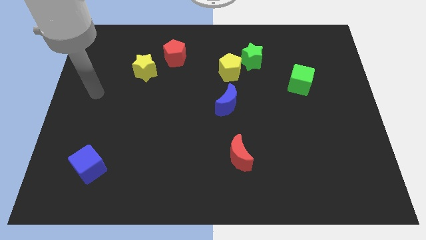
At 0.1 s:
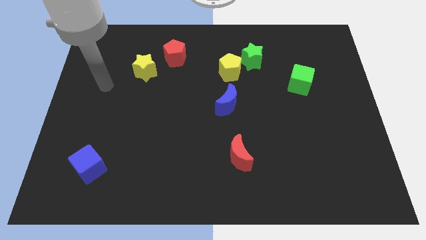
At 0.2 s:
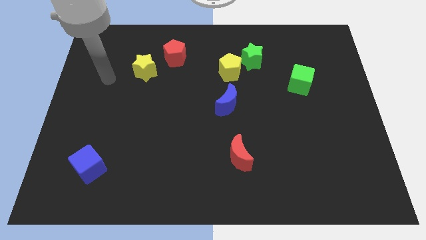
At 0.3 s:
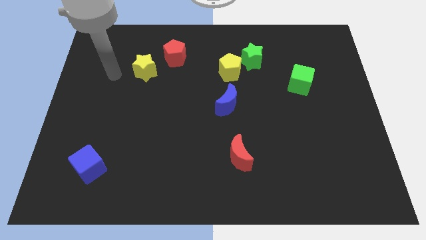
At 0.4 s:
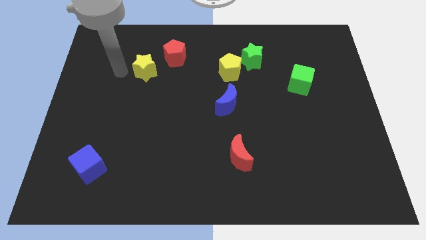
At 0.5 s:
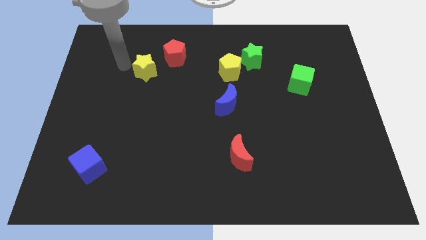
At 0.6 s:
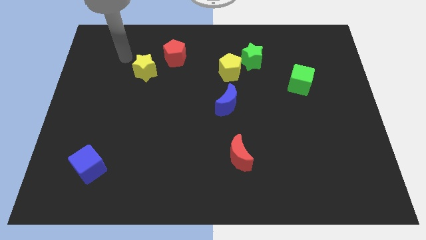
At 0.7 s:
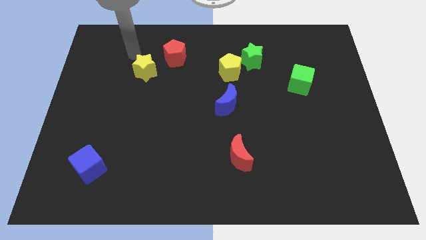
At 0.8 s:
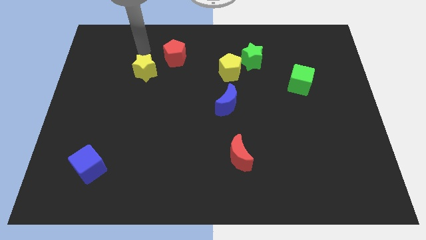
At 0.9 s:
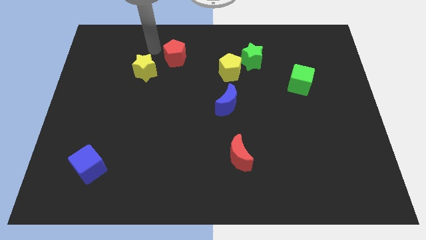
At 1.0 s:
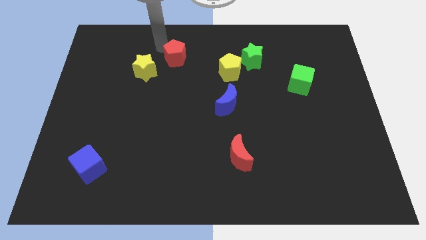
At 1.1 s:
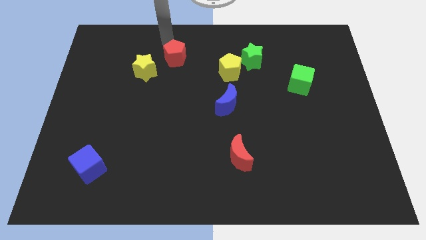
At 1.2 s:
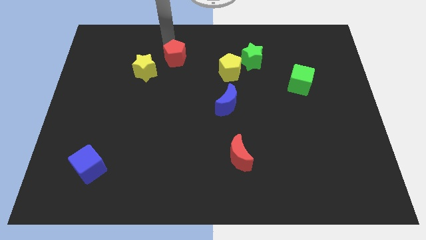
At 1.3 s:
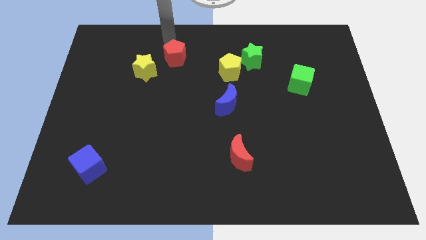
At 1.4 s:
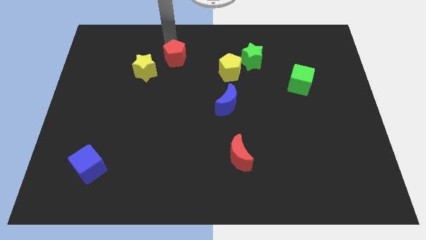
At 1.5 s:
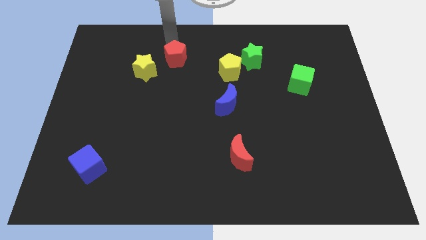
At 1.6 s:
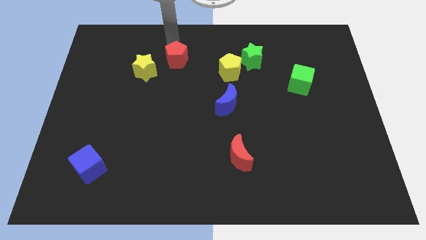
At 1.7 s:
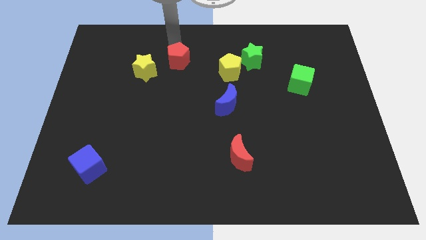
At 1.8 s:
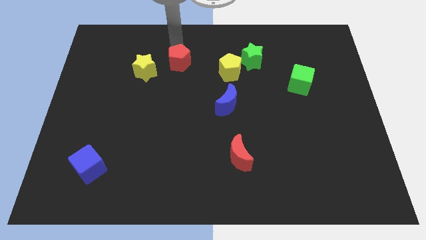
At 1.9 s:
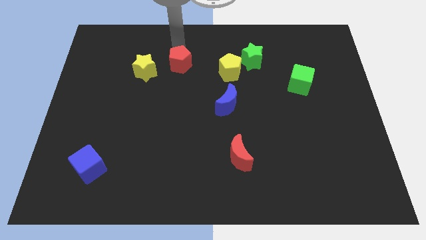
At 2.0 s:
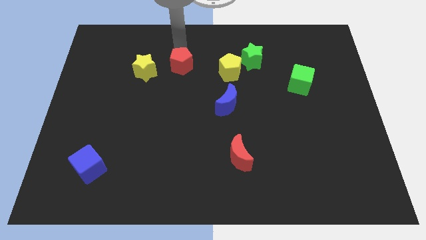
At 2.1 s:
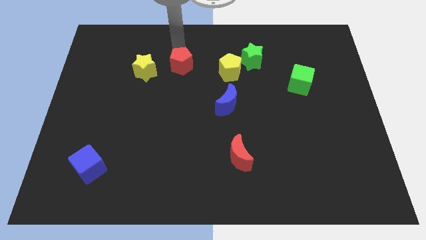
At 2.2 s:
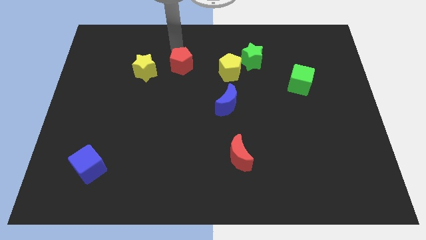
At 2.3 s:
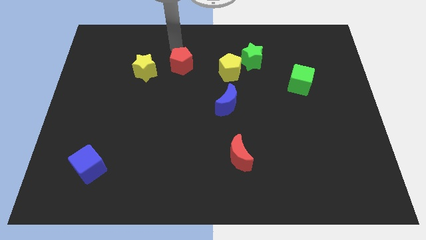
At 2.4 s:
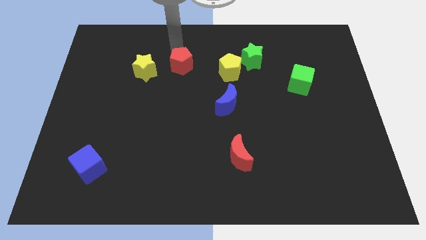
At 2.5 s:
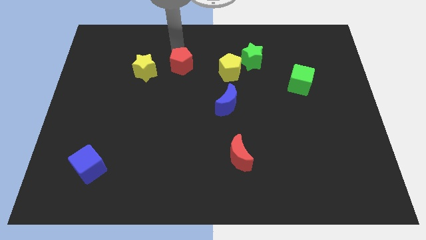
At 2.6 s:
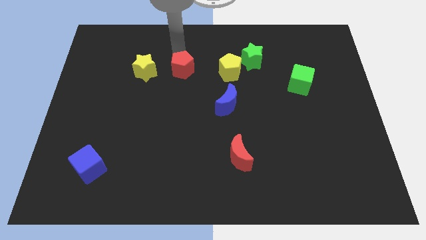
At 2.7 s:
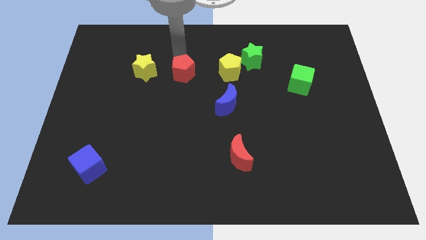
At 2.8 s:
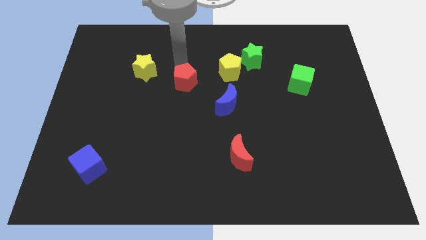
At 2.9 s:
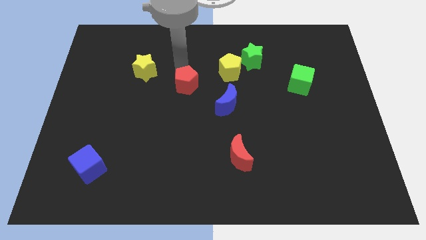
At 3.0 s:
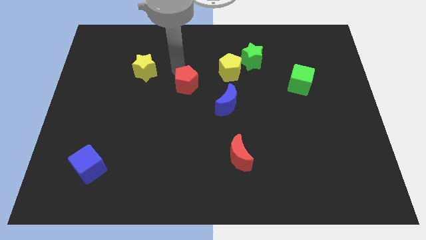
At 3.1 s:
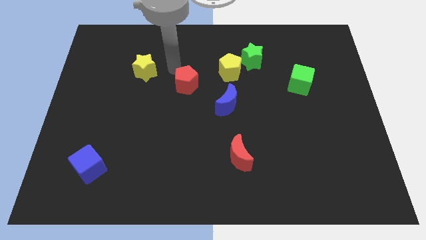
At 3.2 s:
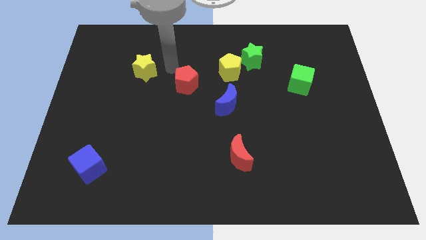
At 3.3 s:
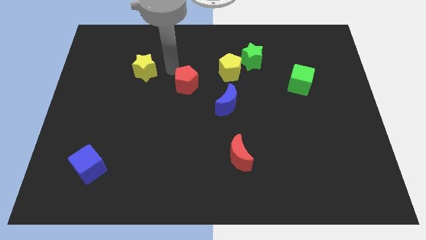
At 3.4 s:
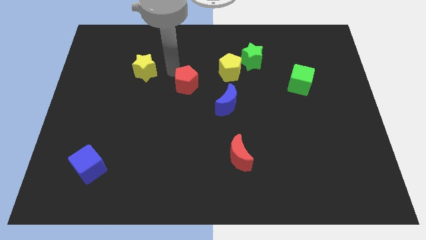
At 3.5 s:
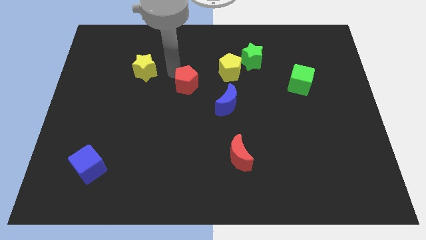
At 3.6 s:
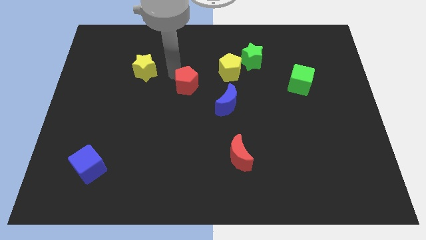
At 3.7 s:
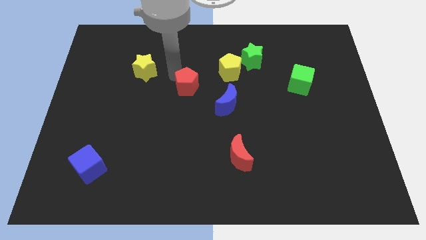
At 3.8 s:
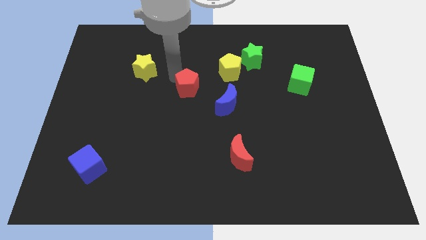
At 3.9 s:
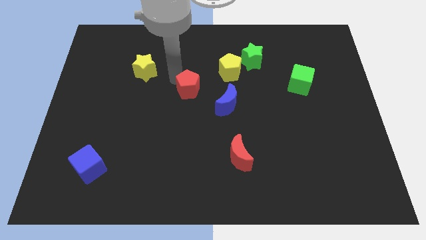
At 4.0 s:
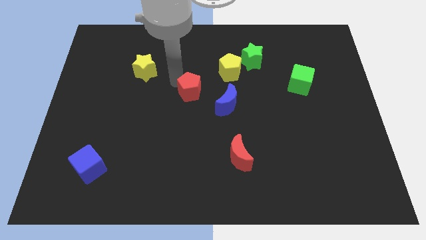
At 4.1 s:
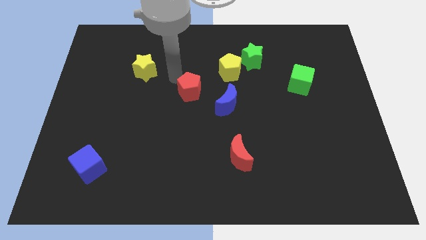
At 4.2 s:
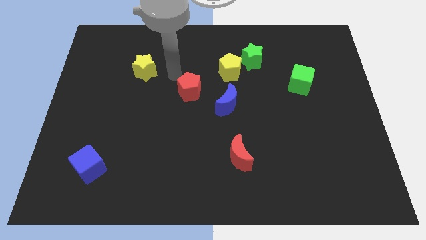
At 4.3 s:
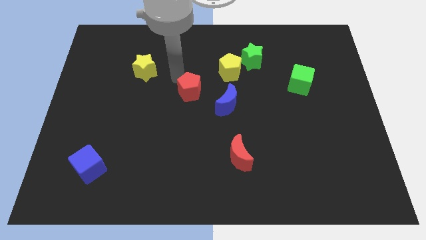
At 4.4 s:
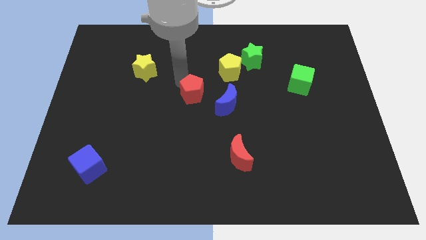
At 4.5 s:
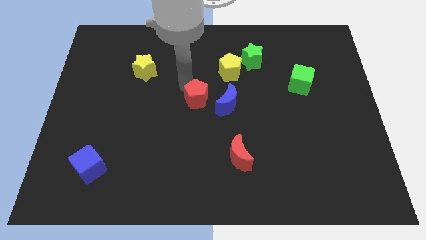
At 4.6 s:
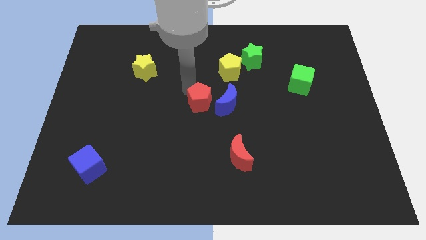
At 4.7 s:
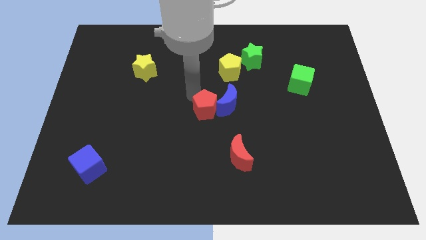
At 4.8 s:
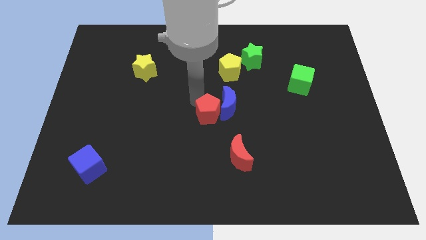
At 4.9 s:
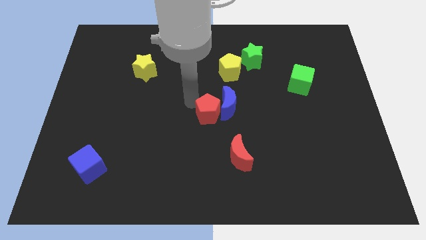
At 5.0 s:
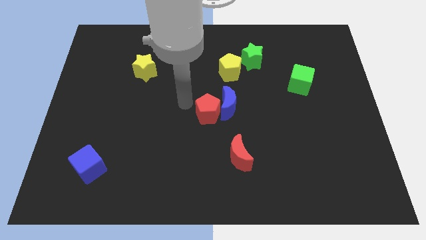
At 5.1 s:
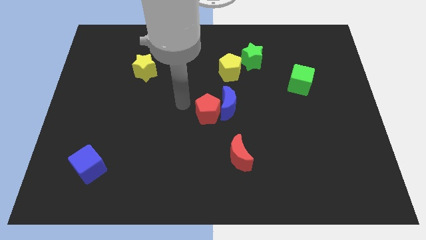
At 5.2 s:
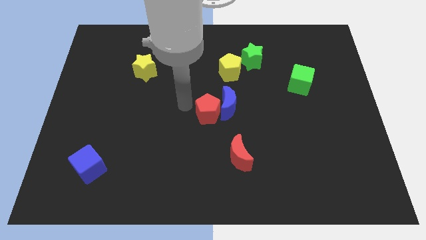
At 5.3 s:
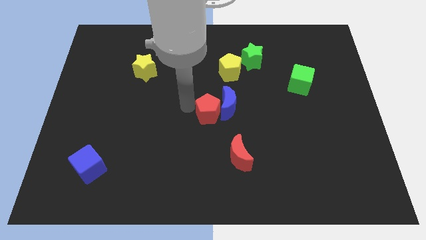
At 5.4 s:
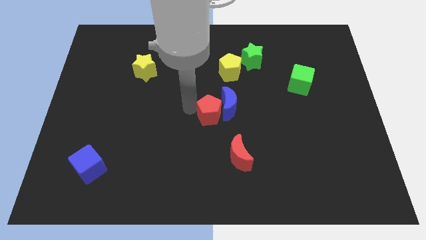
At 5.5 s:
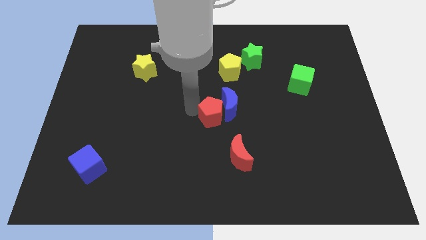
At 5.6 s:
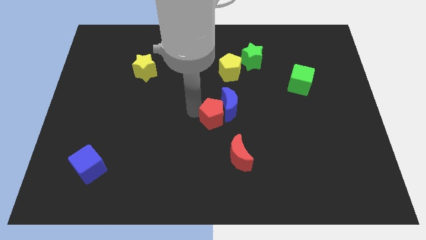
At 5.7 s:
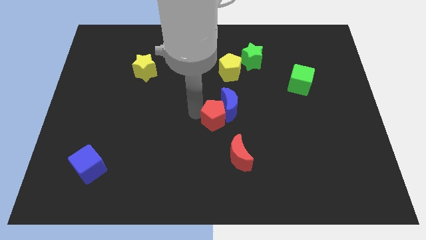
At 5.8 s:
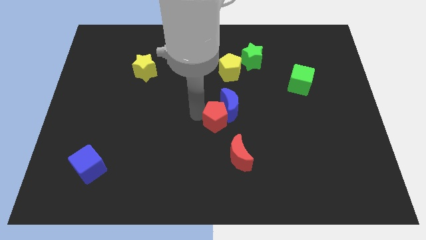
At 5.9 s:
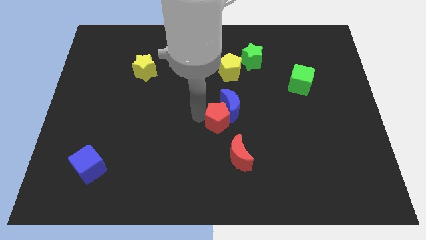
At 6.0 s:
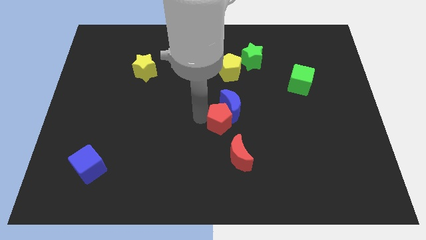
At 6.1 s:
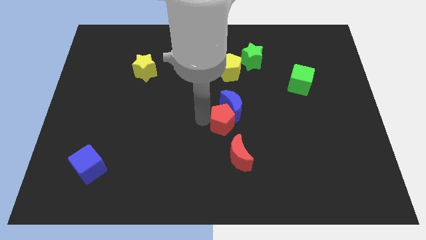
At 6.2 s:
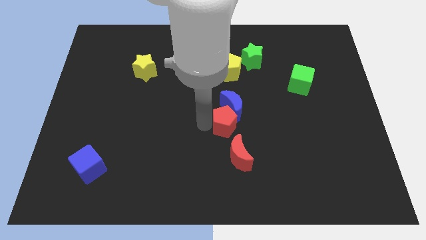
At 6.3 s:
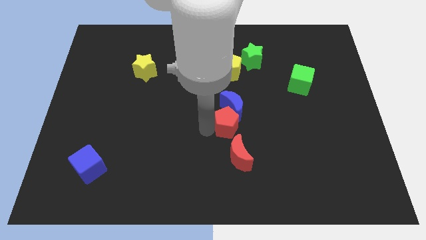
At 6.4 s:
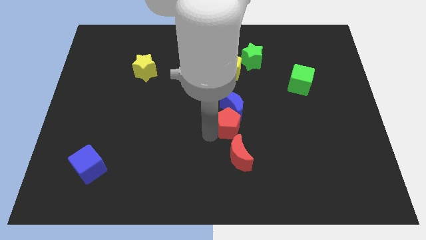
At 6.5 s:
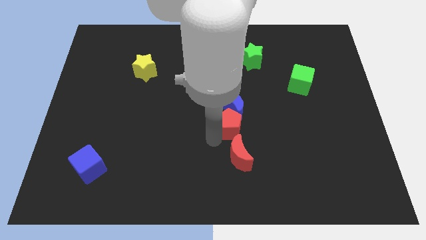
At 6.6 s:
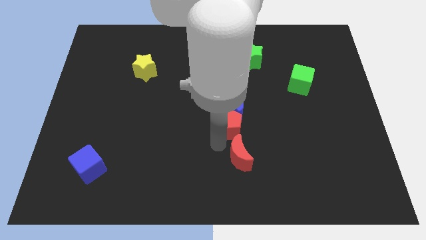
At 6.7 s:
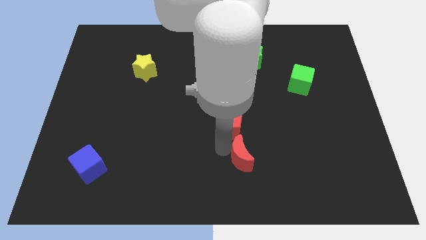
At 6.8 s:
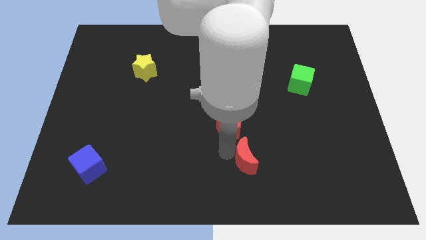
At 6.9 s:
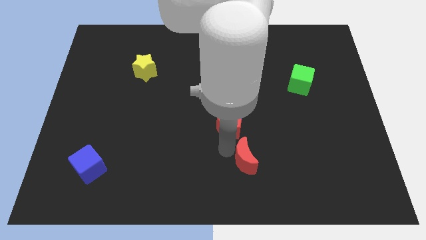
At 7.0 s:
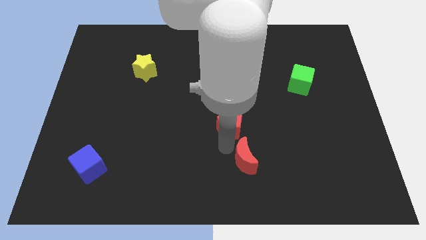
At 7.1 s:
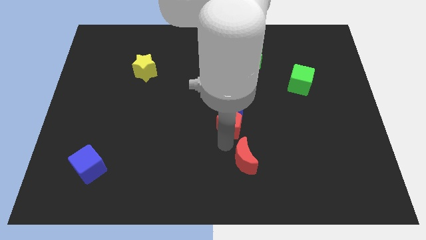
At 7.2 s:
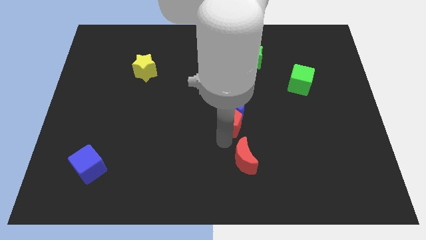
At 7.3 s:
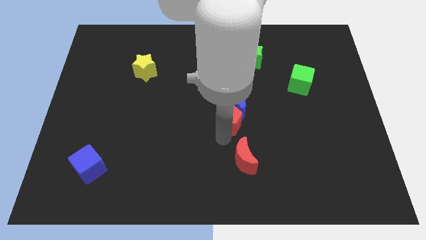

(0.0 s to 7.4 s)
slide the red pentagon to the bottom of the yellow pentagon

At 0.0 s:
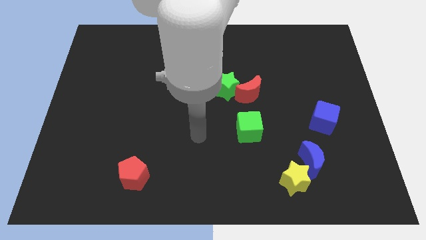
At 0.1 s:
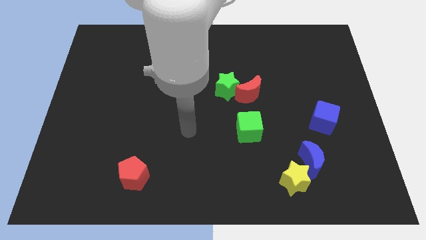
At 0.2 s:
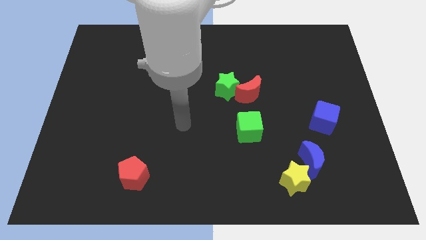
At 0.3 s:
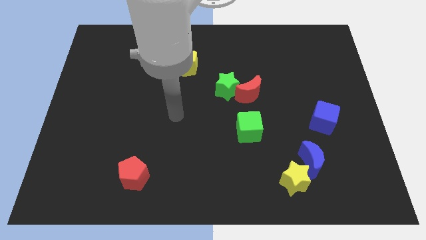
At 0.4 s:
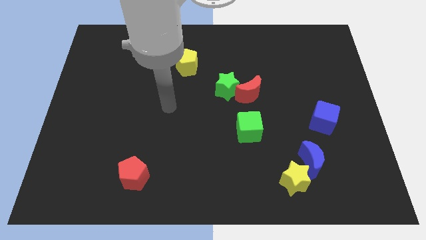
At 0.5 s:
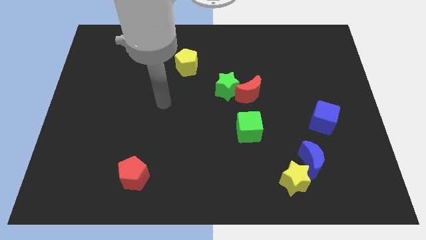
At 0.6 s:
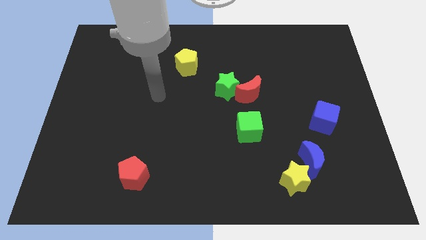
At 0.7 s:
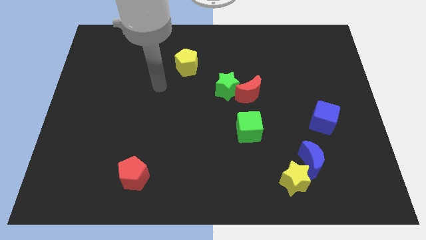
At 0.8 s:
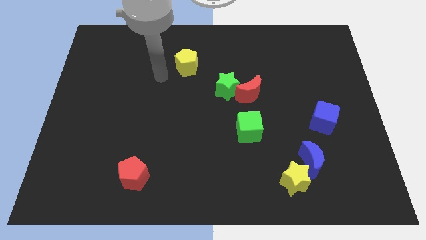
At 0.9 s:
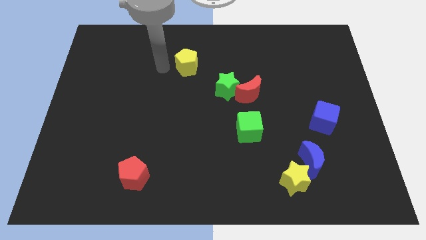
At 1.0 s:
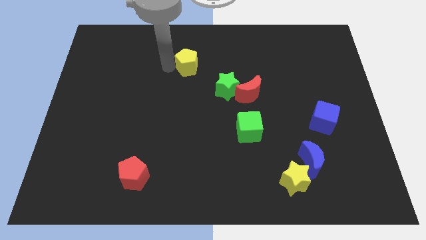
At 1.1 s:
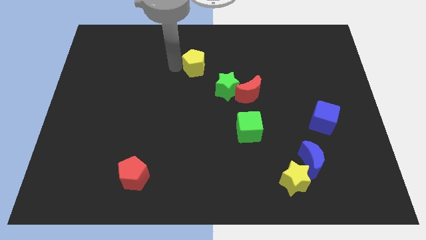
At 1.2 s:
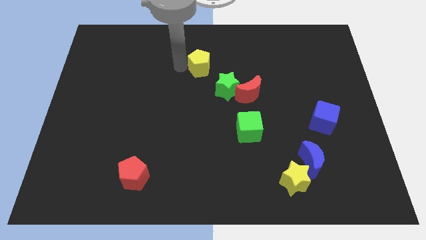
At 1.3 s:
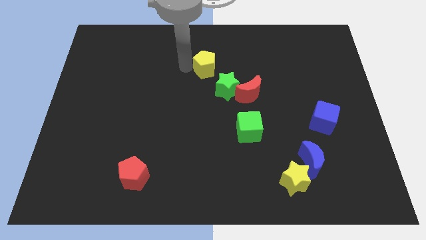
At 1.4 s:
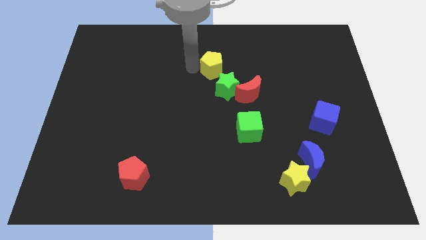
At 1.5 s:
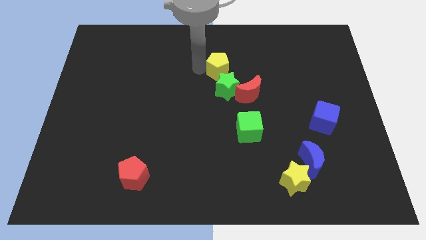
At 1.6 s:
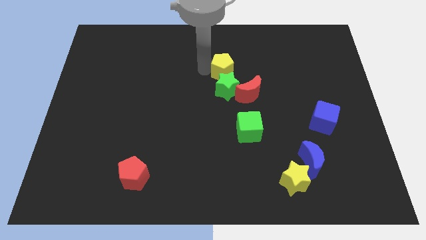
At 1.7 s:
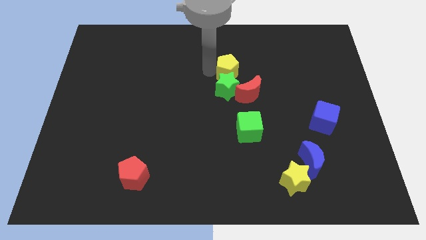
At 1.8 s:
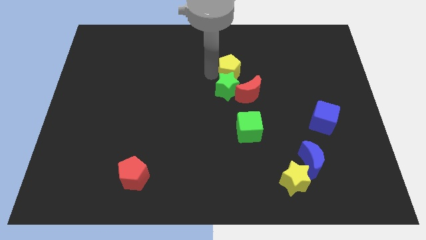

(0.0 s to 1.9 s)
push the yellow pentagon to the top of the red moon
